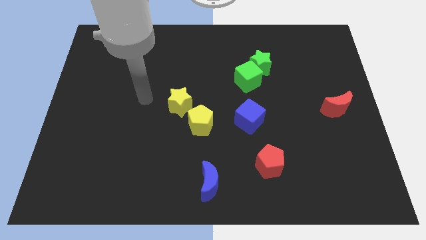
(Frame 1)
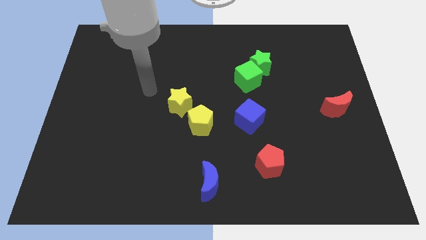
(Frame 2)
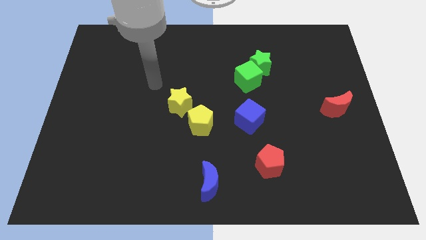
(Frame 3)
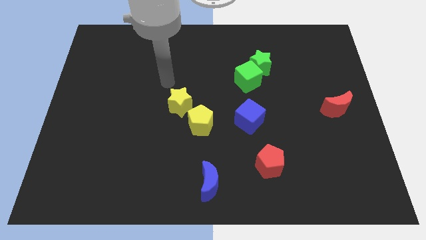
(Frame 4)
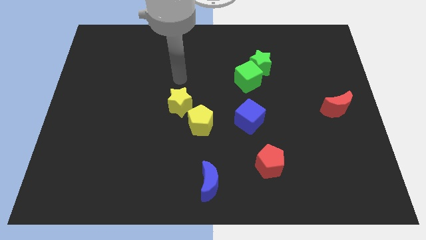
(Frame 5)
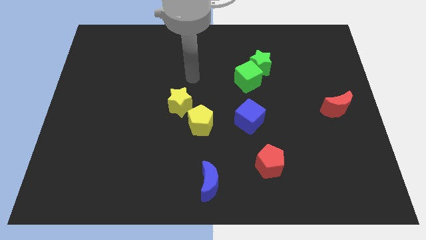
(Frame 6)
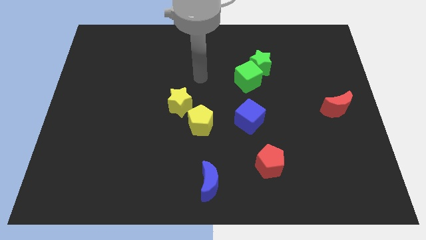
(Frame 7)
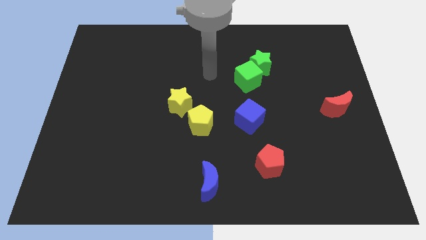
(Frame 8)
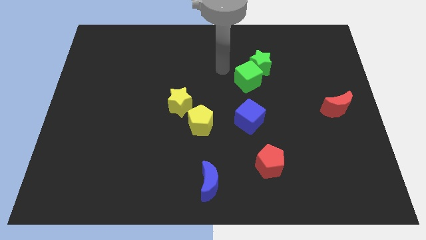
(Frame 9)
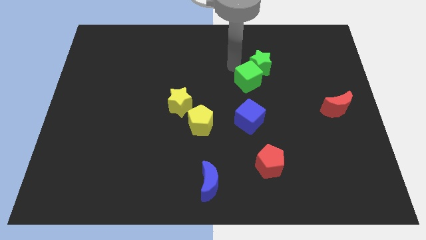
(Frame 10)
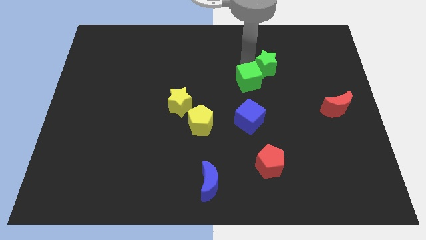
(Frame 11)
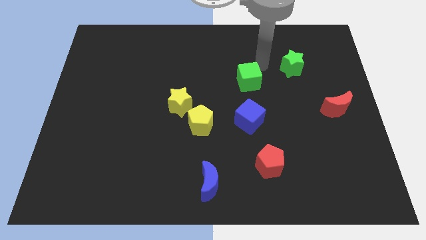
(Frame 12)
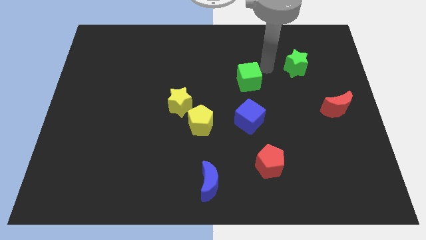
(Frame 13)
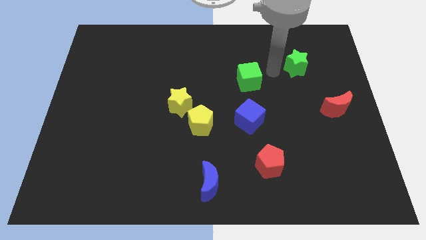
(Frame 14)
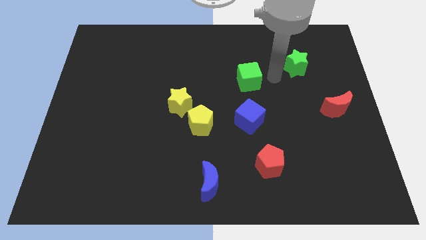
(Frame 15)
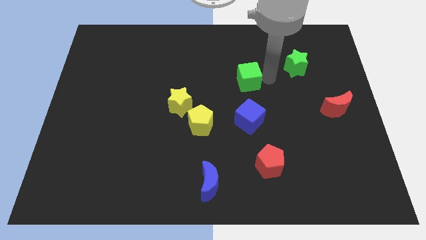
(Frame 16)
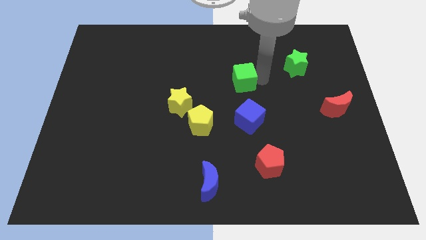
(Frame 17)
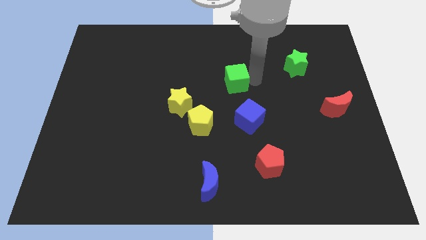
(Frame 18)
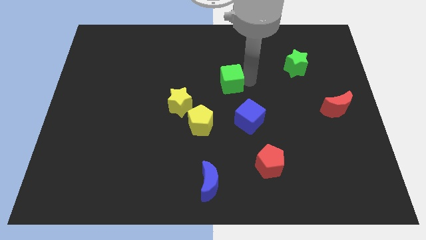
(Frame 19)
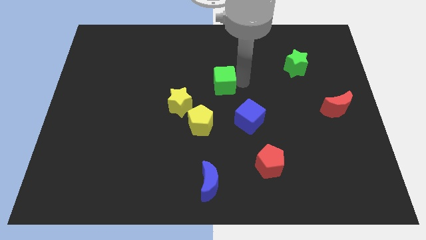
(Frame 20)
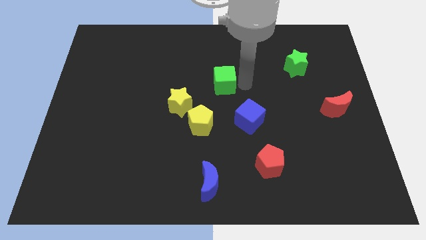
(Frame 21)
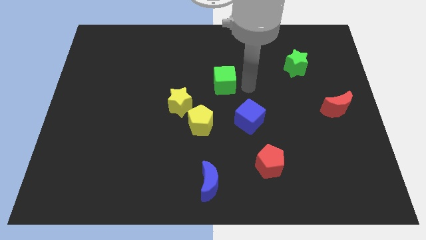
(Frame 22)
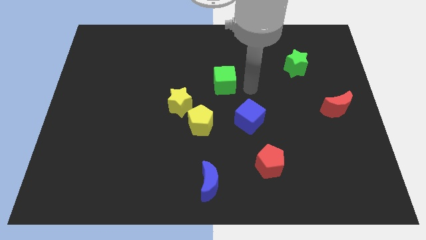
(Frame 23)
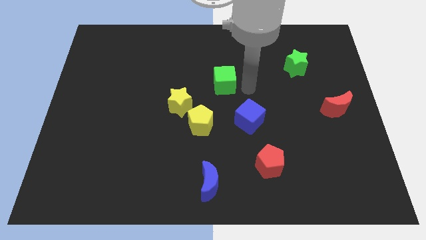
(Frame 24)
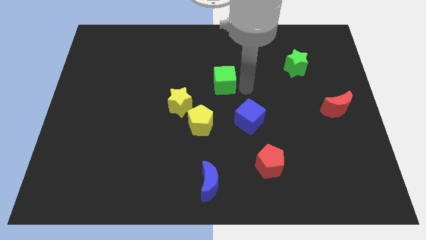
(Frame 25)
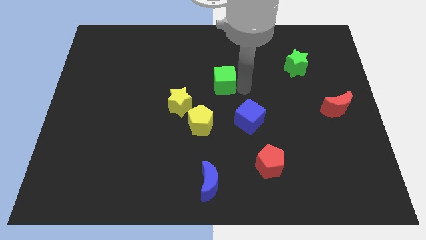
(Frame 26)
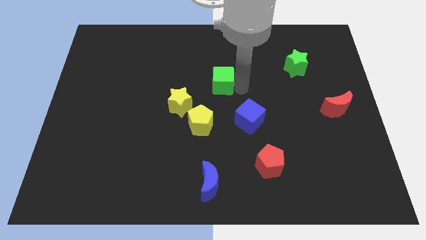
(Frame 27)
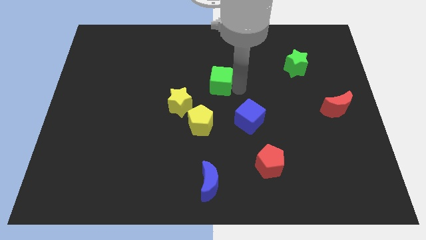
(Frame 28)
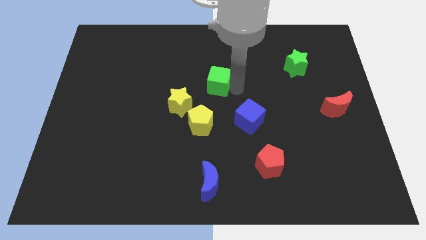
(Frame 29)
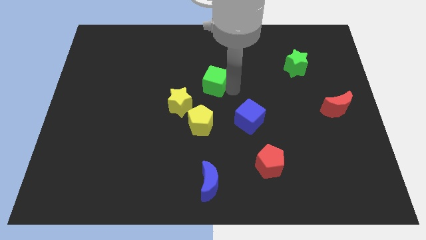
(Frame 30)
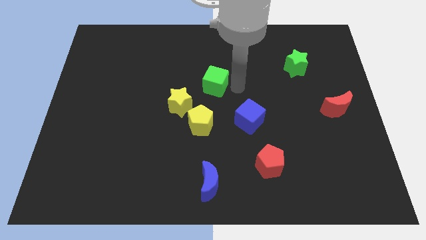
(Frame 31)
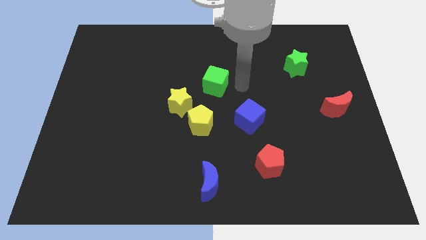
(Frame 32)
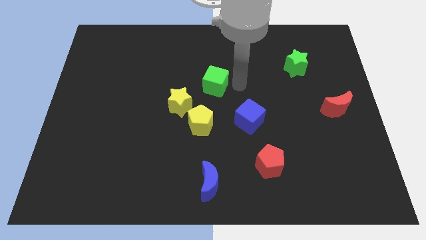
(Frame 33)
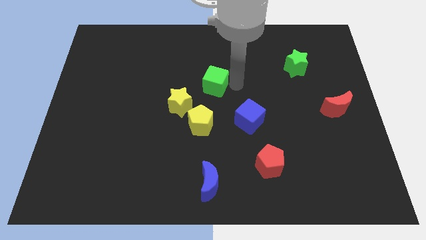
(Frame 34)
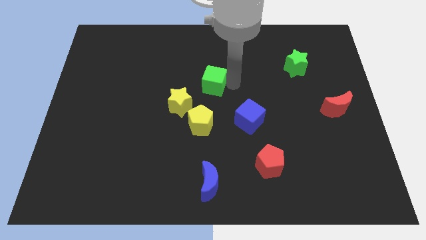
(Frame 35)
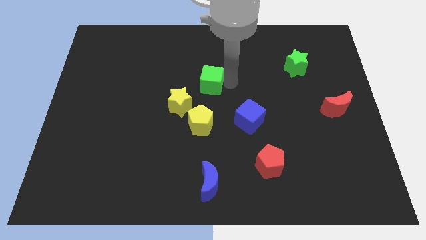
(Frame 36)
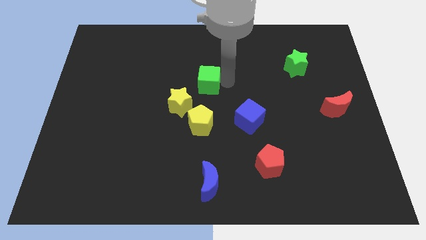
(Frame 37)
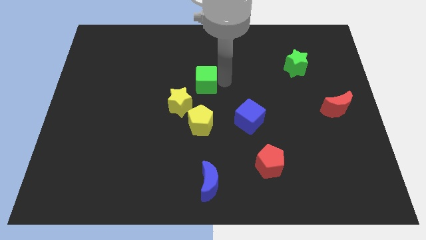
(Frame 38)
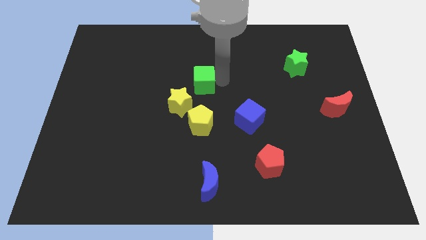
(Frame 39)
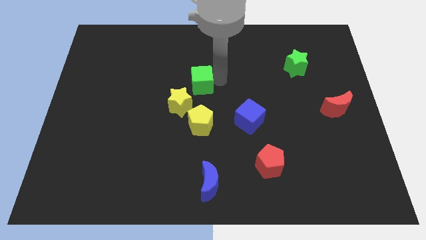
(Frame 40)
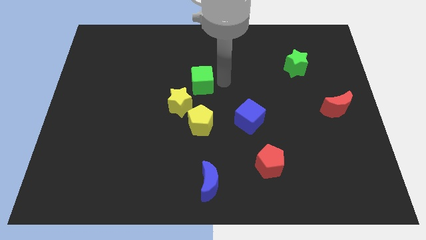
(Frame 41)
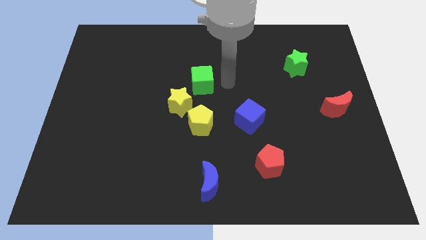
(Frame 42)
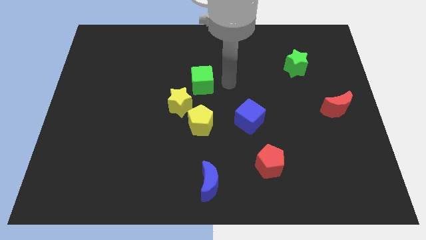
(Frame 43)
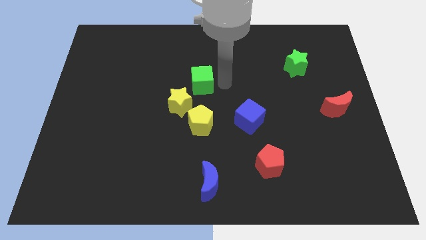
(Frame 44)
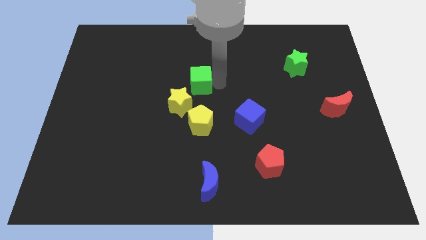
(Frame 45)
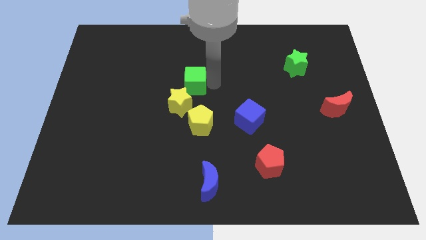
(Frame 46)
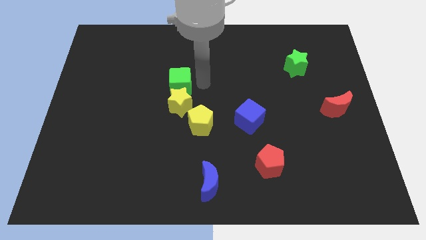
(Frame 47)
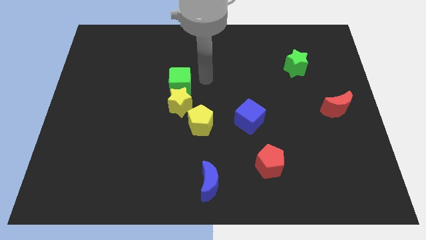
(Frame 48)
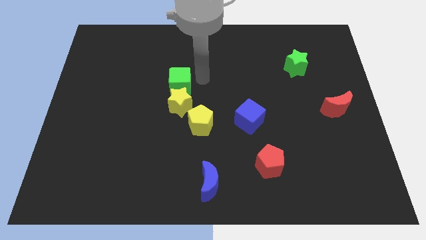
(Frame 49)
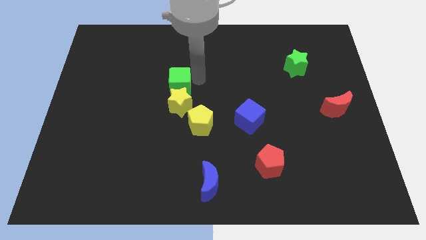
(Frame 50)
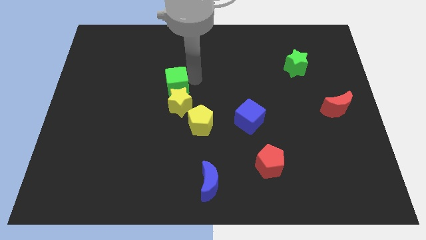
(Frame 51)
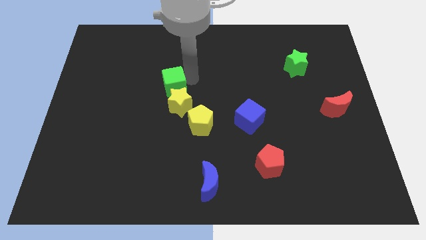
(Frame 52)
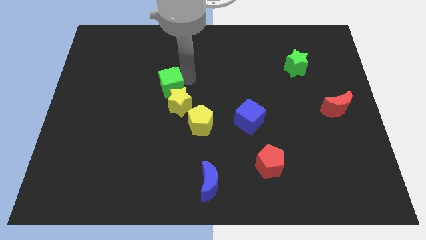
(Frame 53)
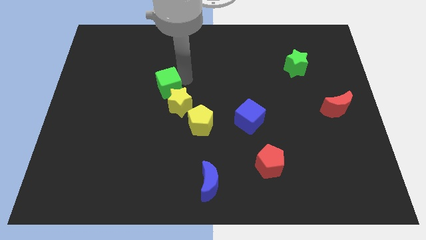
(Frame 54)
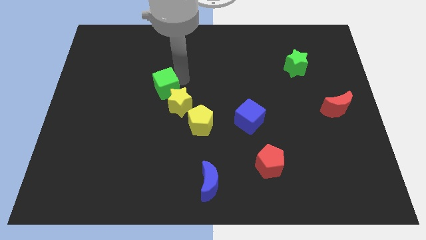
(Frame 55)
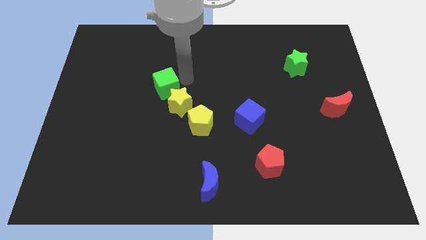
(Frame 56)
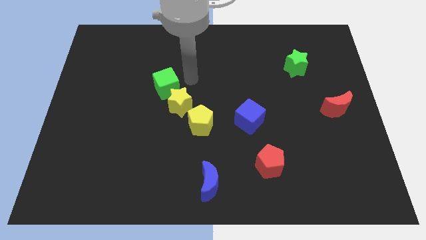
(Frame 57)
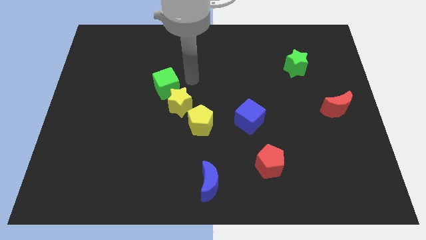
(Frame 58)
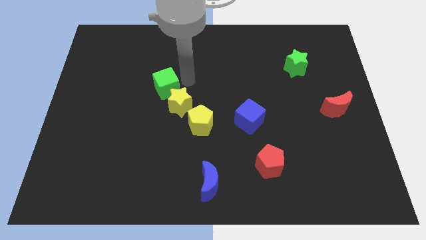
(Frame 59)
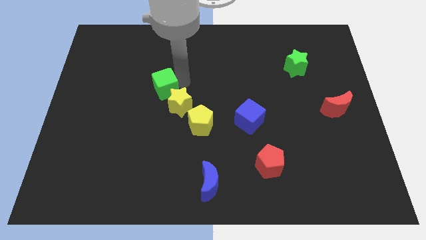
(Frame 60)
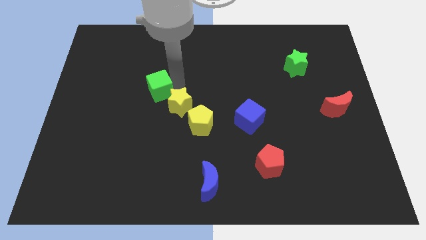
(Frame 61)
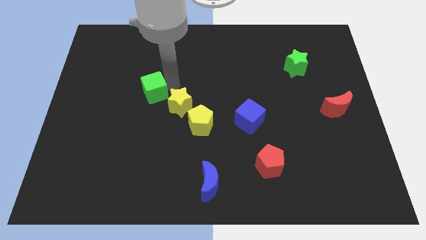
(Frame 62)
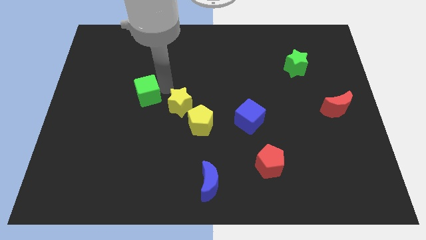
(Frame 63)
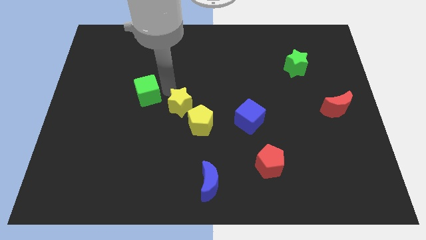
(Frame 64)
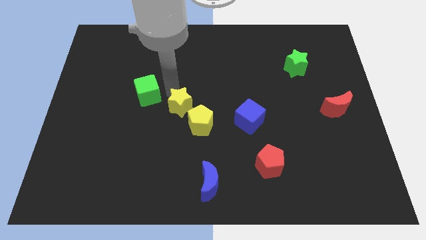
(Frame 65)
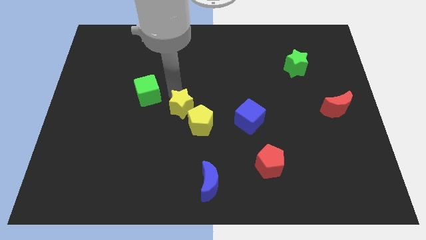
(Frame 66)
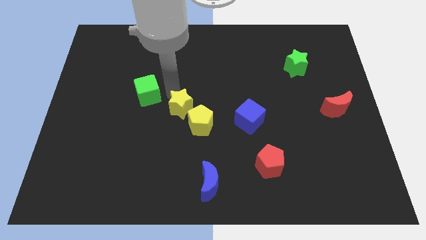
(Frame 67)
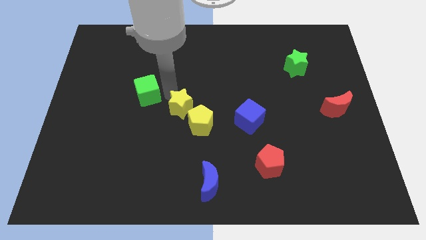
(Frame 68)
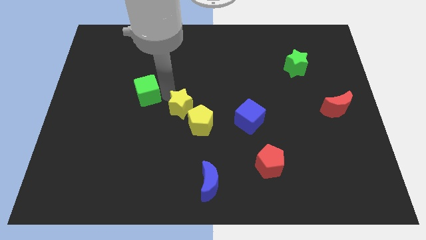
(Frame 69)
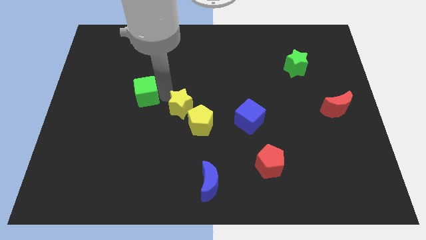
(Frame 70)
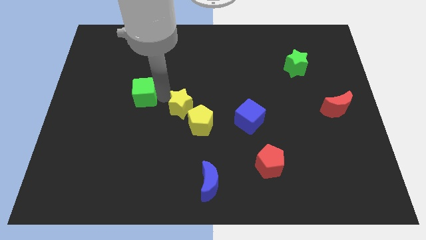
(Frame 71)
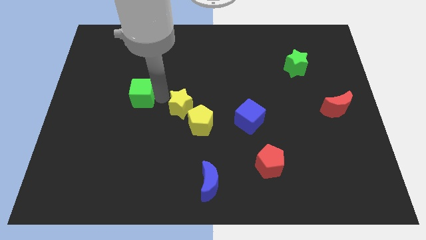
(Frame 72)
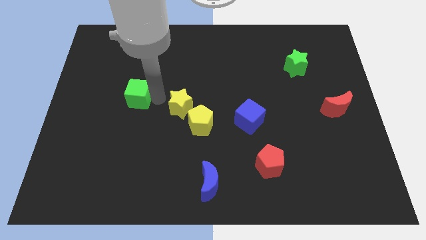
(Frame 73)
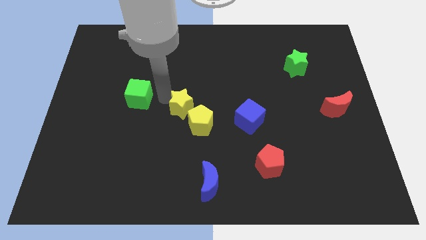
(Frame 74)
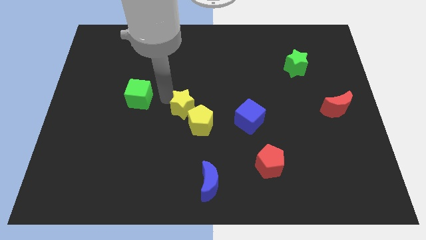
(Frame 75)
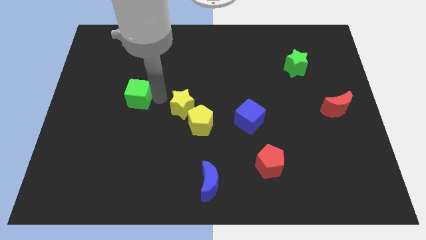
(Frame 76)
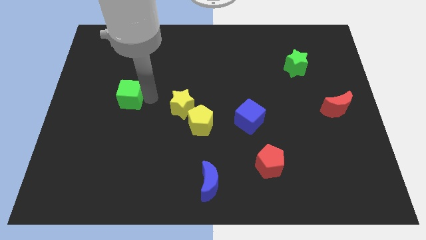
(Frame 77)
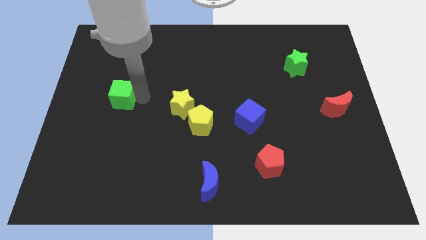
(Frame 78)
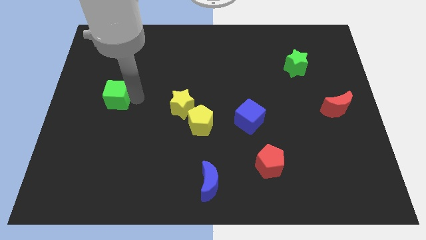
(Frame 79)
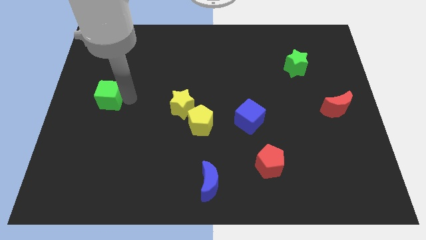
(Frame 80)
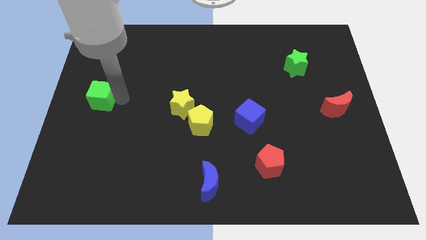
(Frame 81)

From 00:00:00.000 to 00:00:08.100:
push the green cube to the center left
